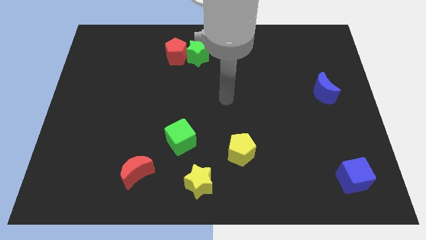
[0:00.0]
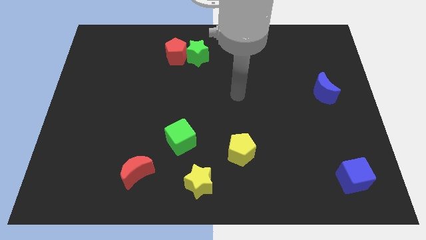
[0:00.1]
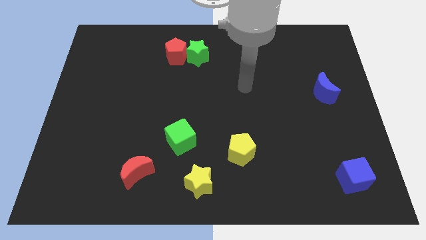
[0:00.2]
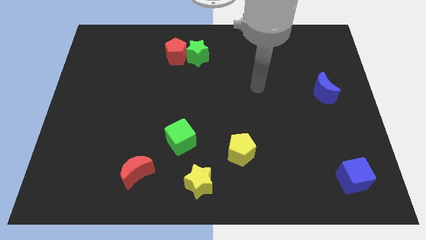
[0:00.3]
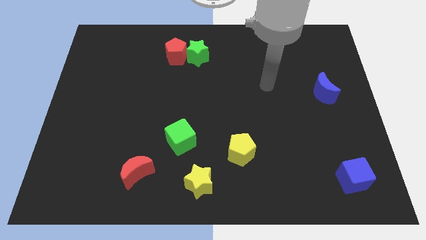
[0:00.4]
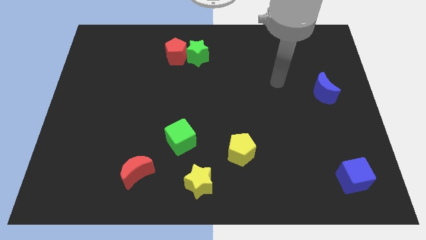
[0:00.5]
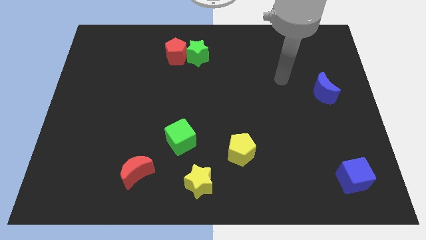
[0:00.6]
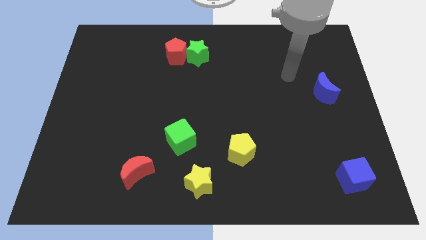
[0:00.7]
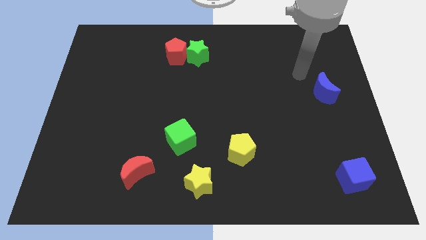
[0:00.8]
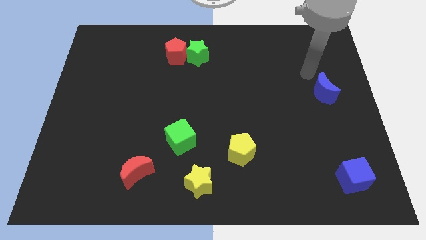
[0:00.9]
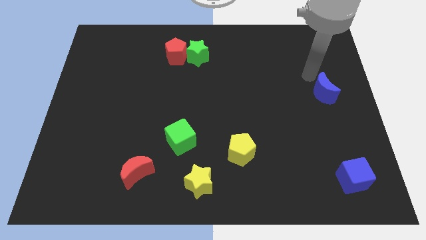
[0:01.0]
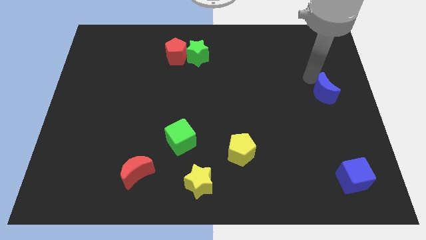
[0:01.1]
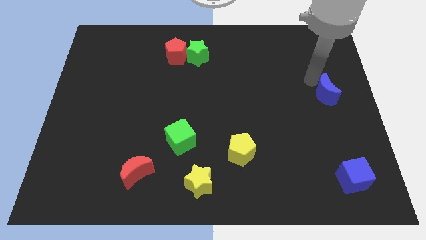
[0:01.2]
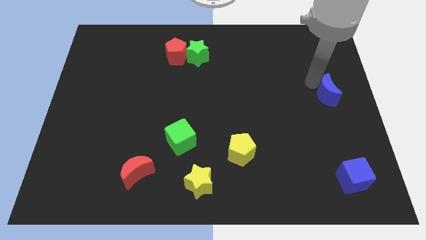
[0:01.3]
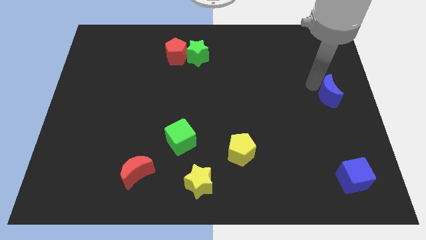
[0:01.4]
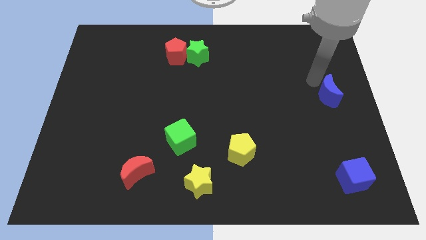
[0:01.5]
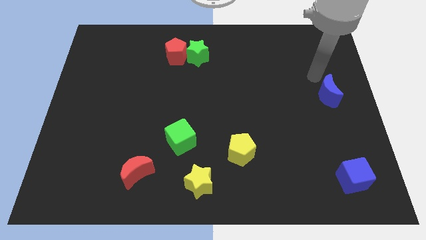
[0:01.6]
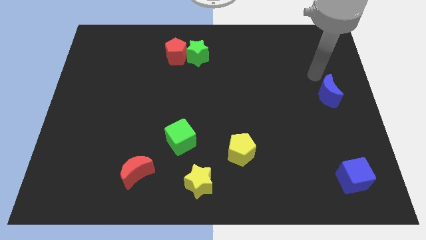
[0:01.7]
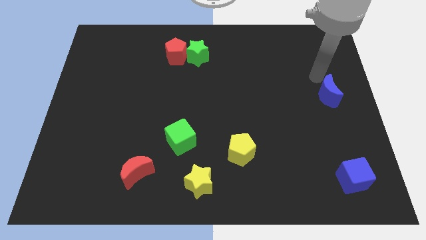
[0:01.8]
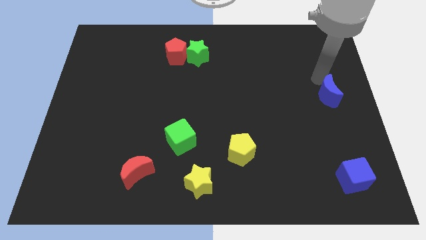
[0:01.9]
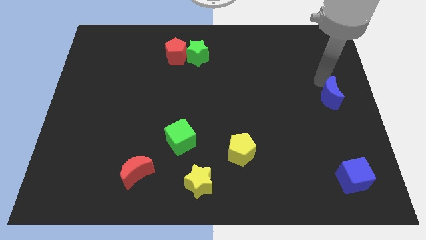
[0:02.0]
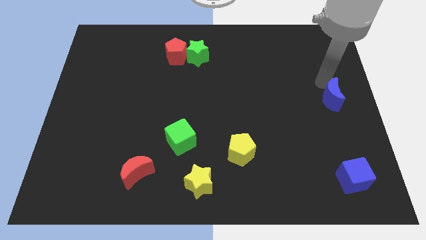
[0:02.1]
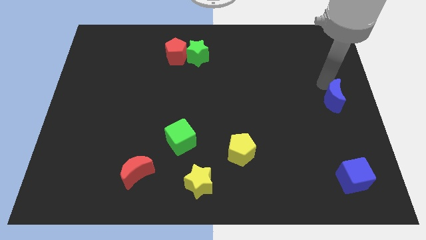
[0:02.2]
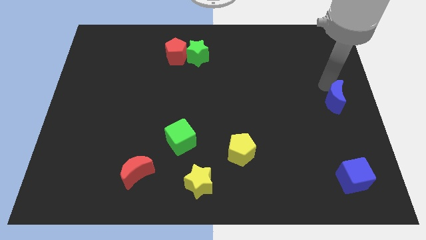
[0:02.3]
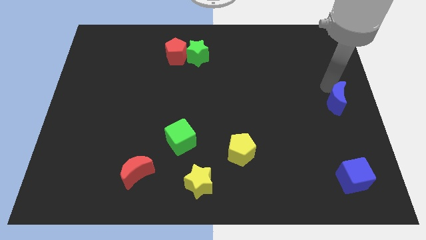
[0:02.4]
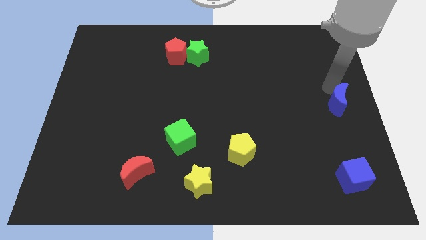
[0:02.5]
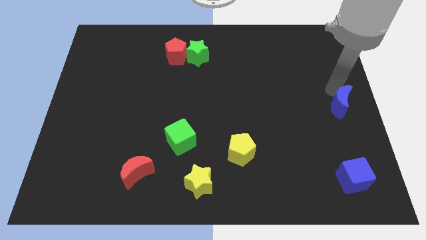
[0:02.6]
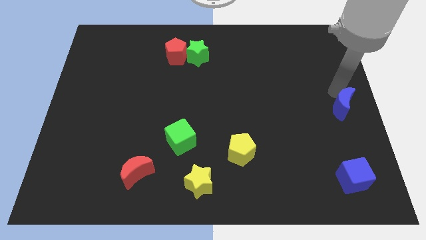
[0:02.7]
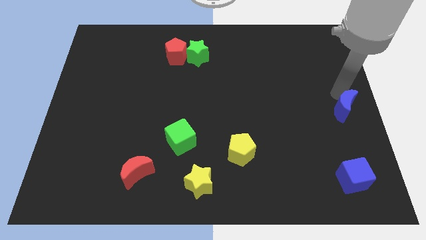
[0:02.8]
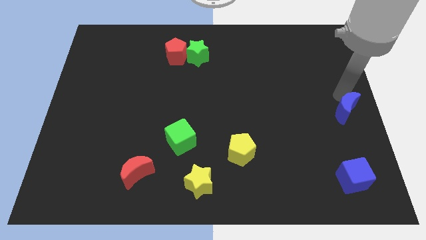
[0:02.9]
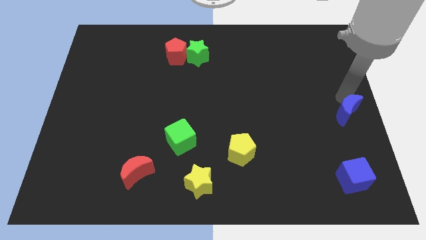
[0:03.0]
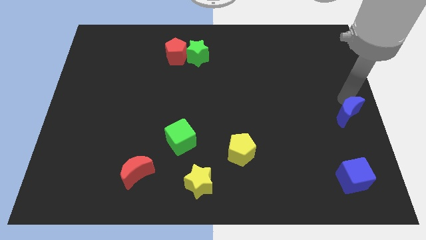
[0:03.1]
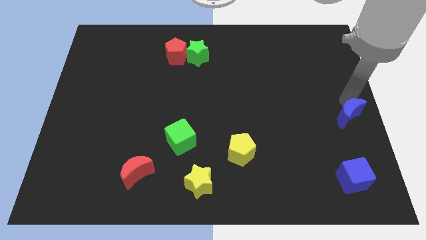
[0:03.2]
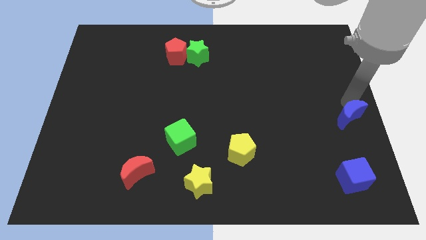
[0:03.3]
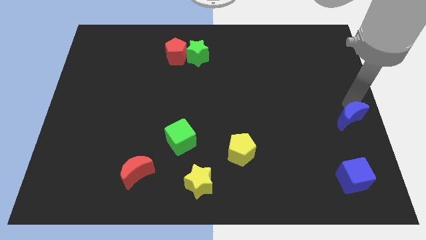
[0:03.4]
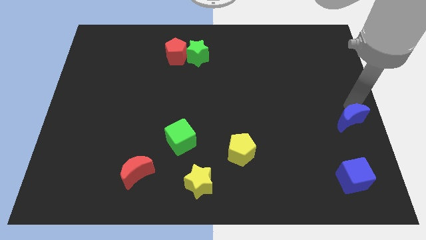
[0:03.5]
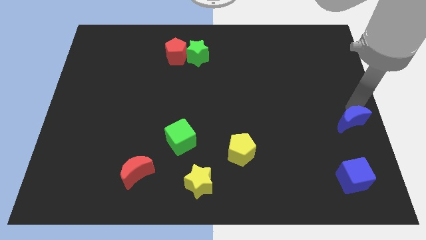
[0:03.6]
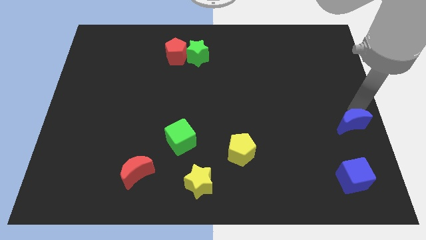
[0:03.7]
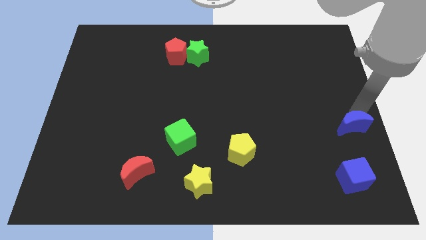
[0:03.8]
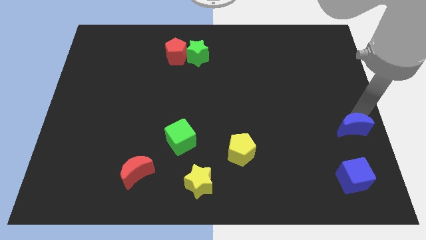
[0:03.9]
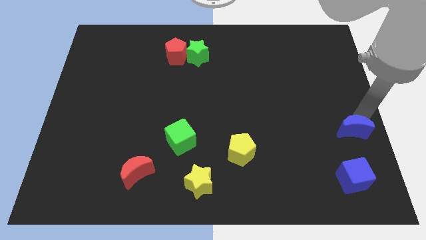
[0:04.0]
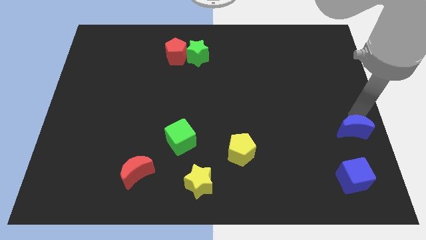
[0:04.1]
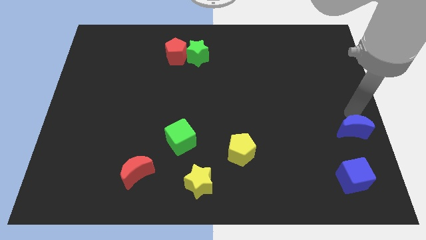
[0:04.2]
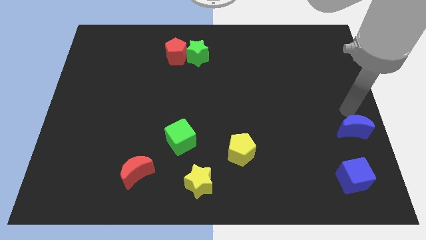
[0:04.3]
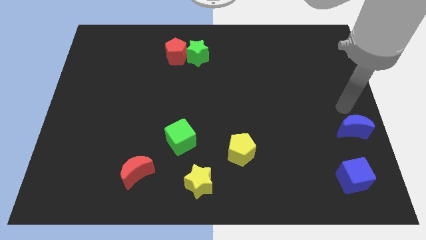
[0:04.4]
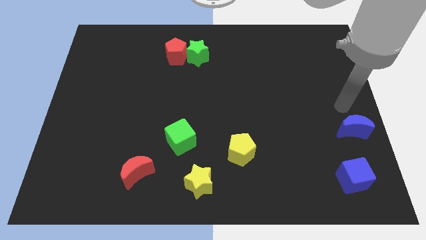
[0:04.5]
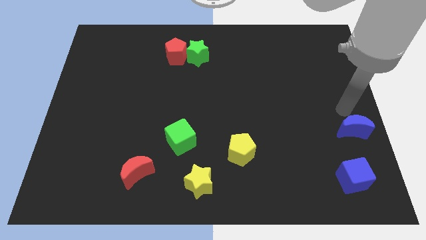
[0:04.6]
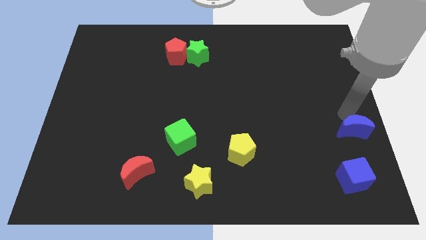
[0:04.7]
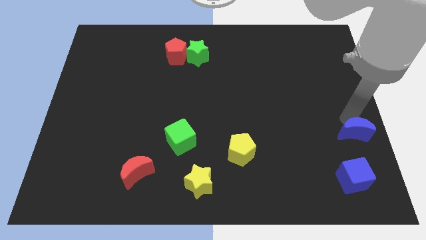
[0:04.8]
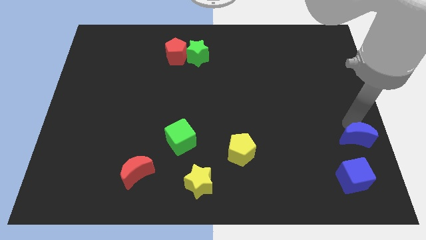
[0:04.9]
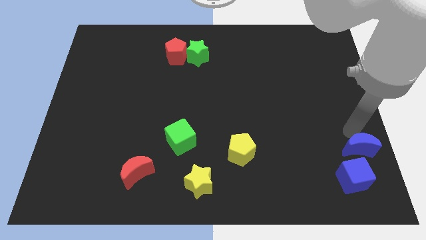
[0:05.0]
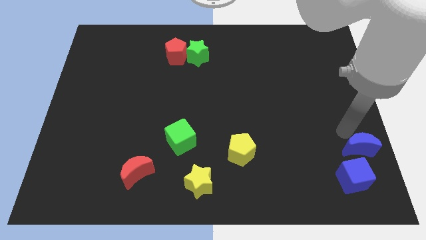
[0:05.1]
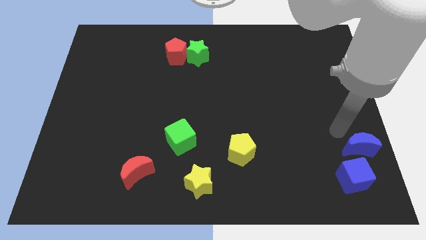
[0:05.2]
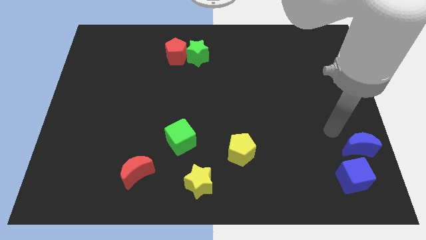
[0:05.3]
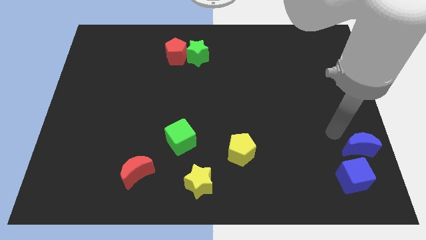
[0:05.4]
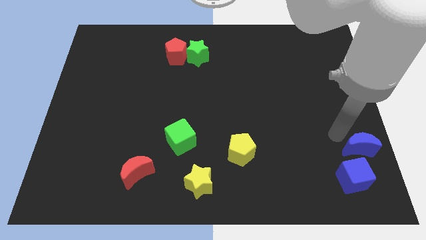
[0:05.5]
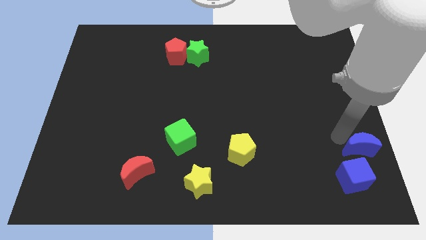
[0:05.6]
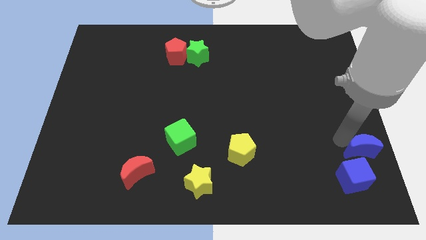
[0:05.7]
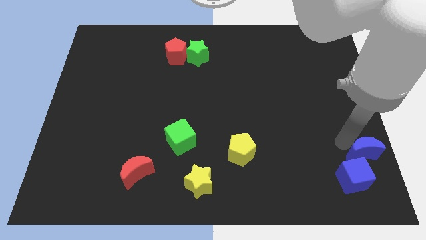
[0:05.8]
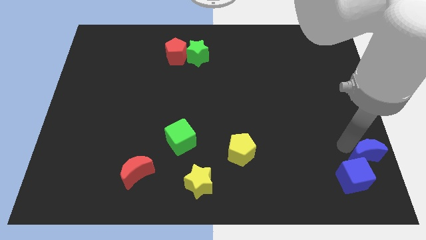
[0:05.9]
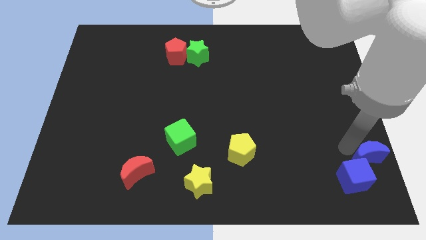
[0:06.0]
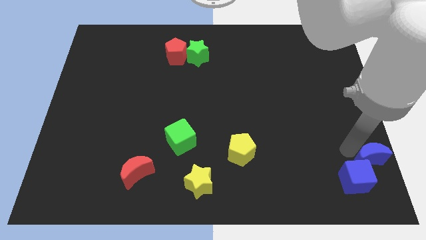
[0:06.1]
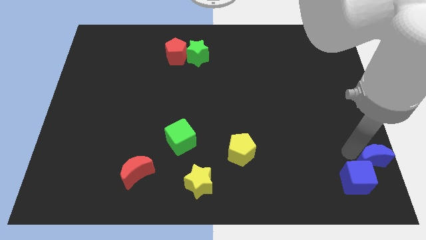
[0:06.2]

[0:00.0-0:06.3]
move the blue moon to the bottom right

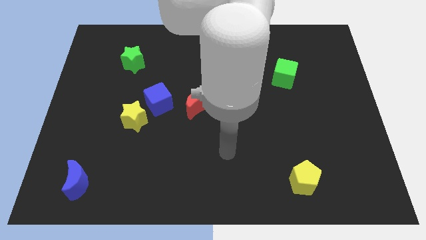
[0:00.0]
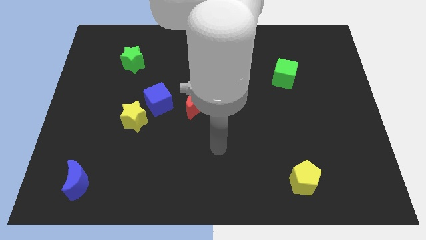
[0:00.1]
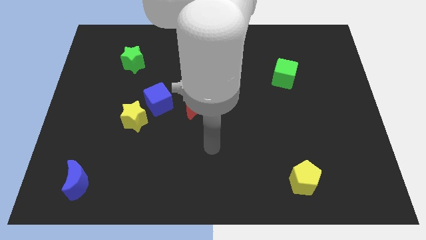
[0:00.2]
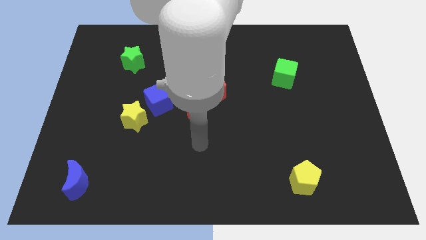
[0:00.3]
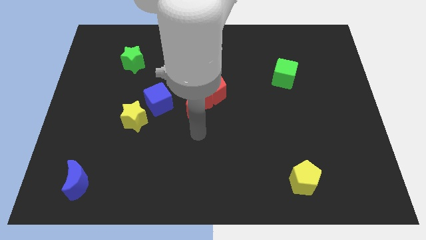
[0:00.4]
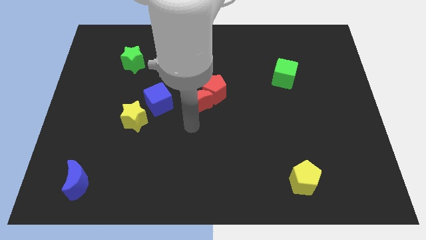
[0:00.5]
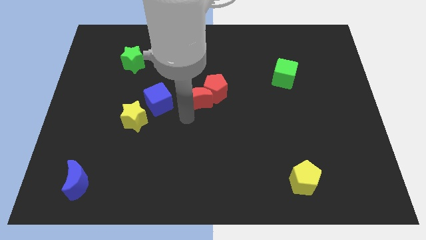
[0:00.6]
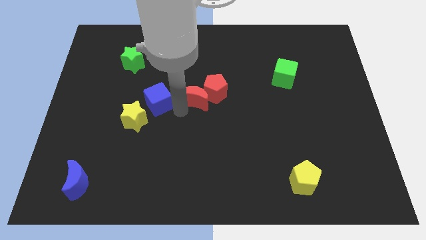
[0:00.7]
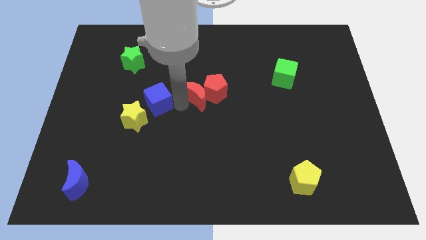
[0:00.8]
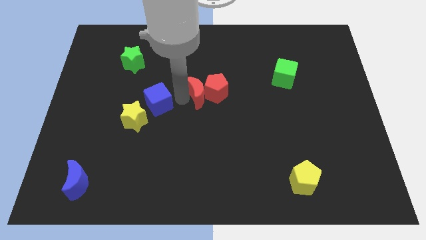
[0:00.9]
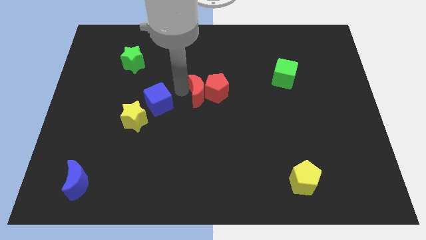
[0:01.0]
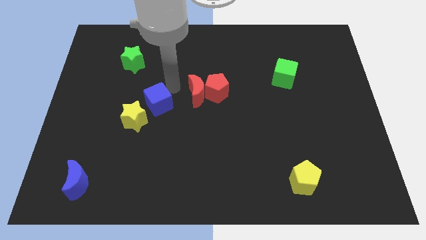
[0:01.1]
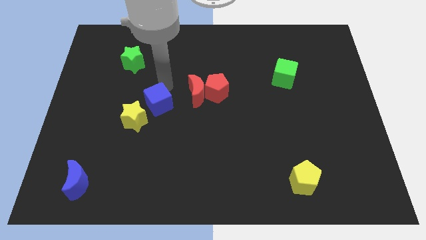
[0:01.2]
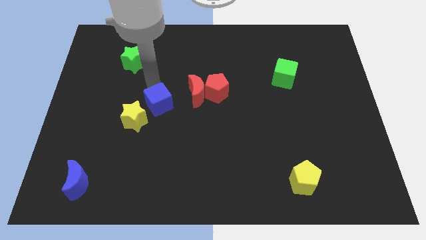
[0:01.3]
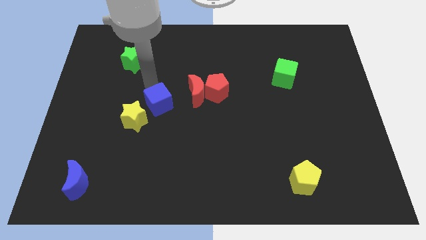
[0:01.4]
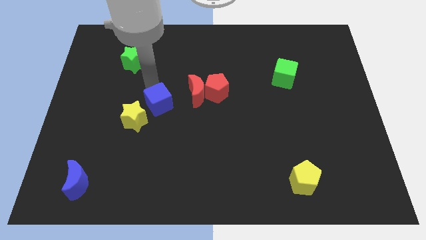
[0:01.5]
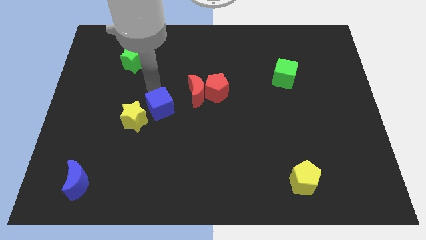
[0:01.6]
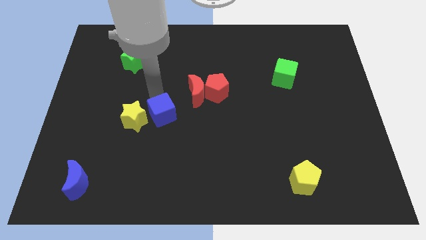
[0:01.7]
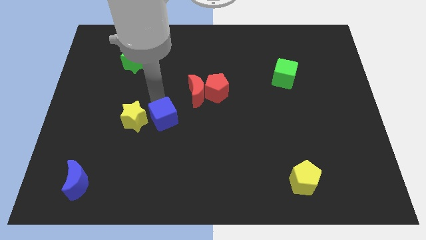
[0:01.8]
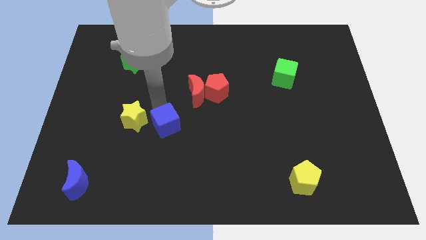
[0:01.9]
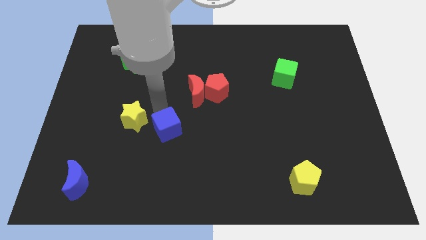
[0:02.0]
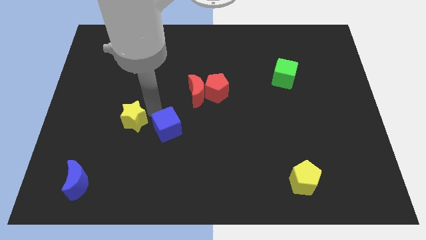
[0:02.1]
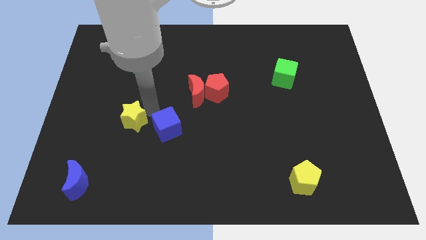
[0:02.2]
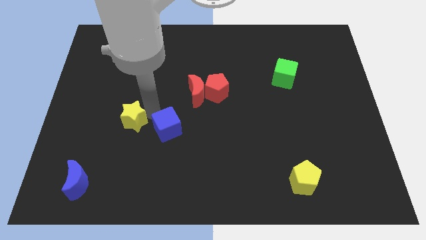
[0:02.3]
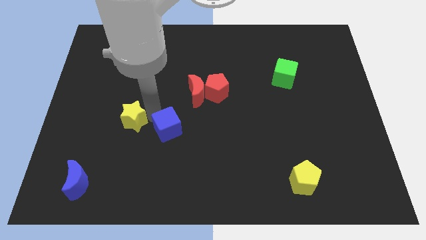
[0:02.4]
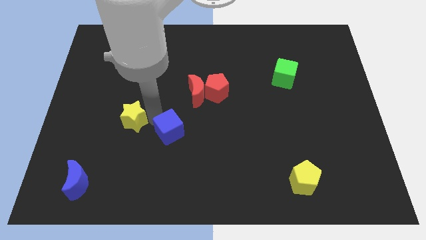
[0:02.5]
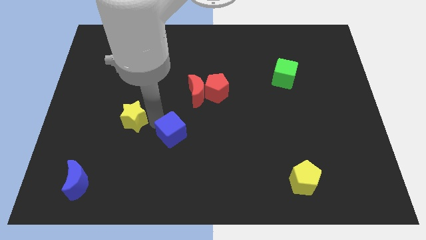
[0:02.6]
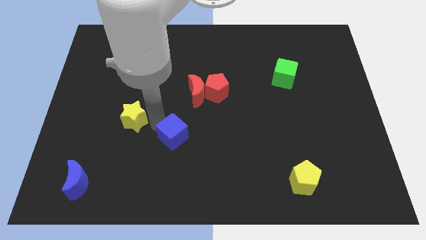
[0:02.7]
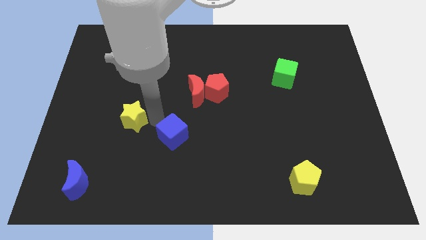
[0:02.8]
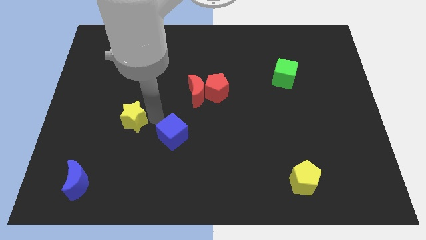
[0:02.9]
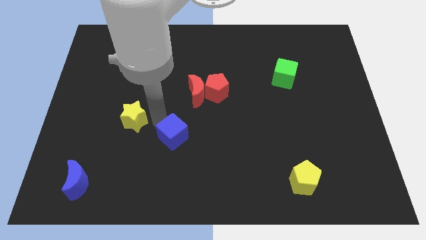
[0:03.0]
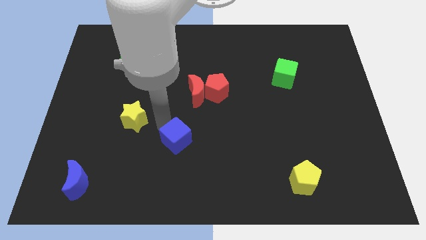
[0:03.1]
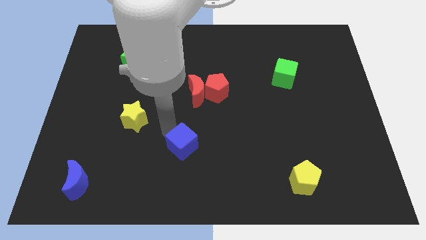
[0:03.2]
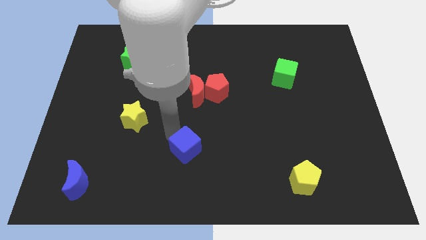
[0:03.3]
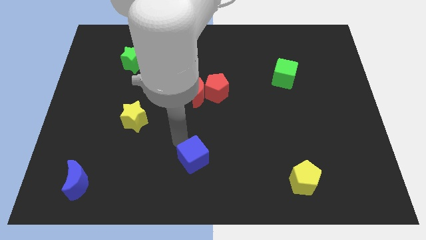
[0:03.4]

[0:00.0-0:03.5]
push the blue cube to the bottom
